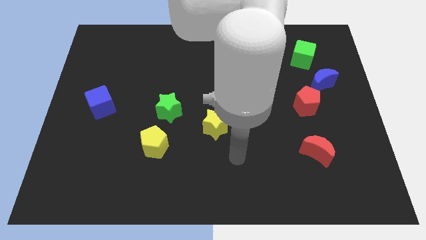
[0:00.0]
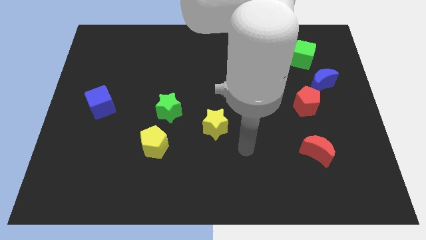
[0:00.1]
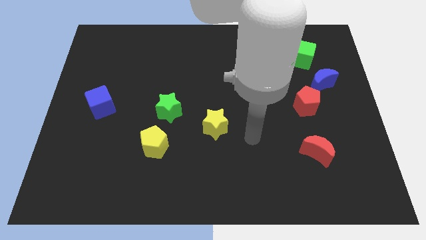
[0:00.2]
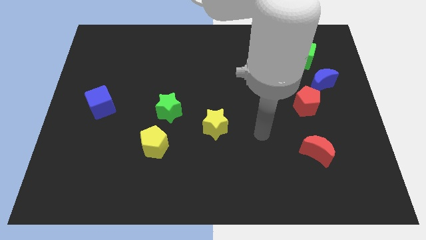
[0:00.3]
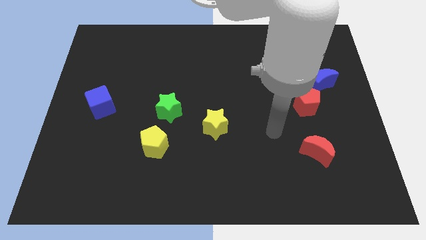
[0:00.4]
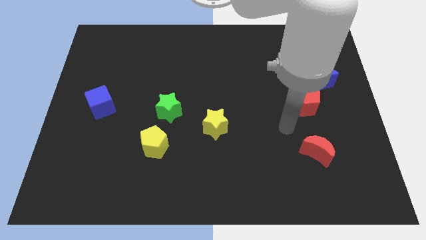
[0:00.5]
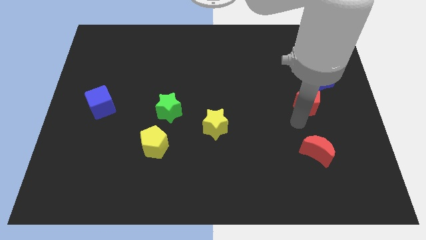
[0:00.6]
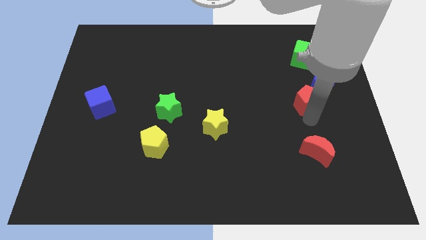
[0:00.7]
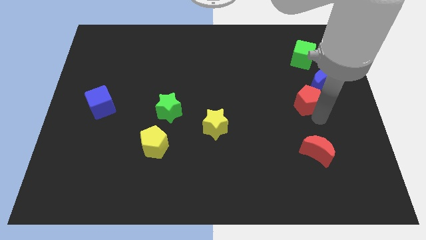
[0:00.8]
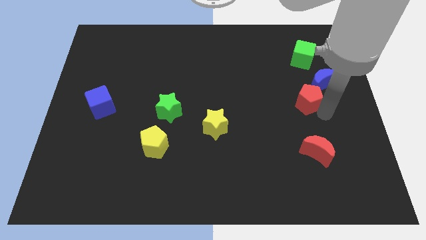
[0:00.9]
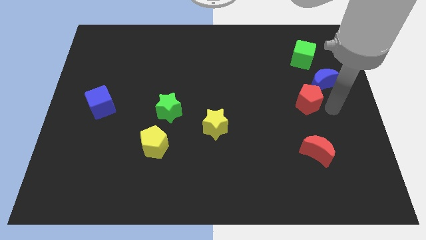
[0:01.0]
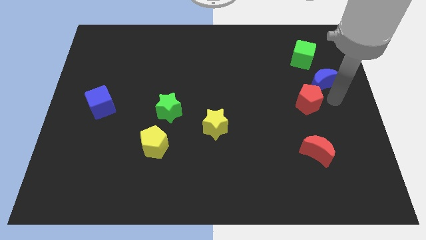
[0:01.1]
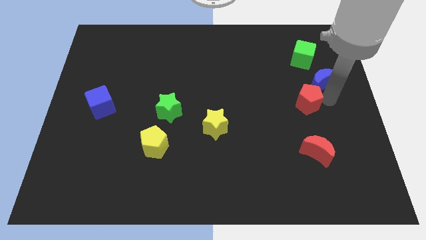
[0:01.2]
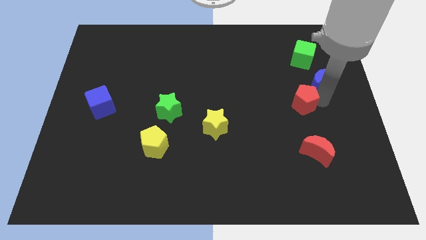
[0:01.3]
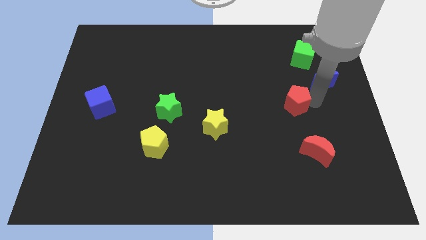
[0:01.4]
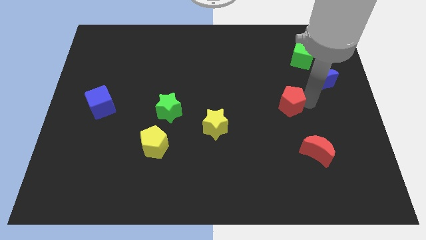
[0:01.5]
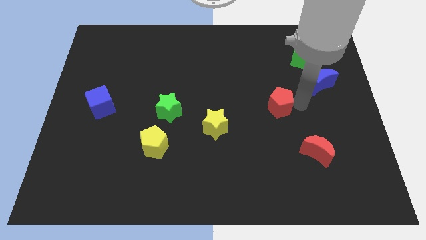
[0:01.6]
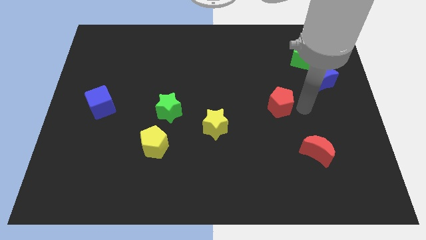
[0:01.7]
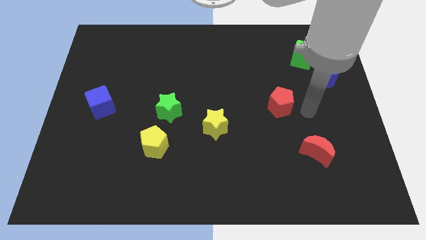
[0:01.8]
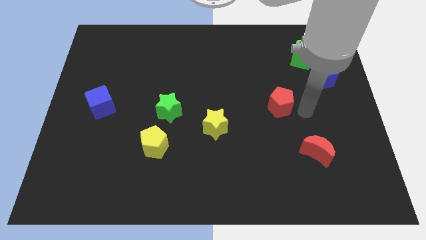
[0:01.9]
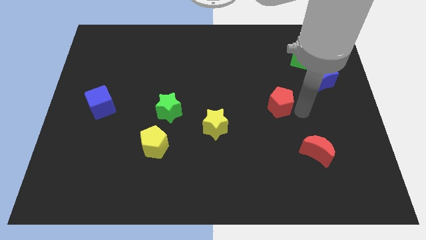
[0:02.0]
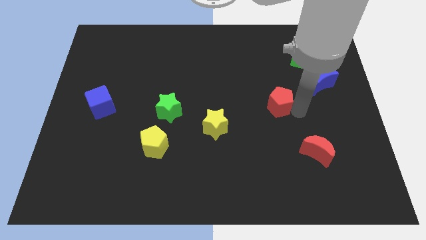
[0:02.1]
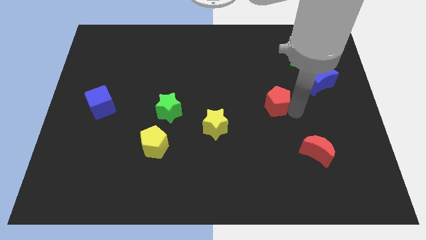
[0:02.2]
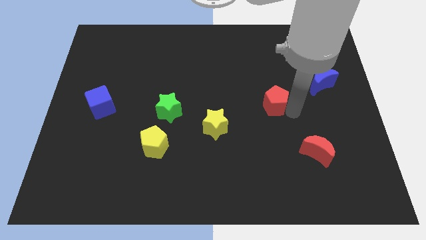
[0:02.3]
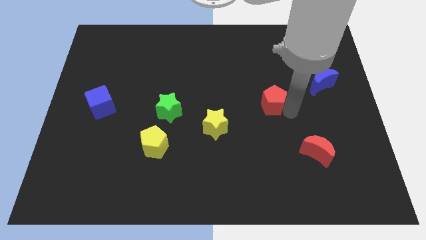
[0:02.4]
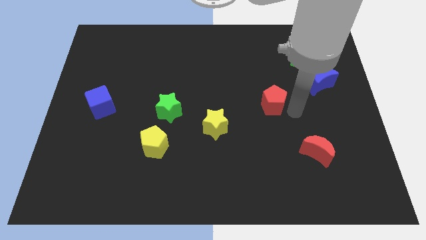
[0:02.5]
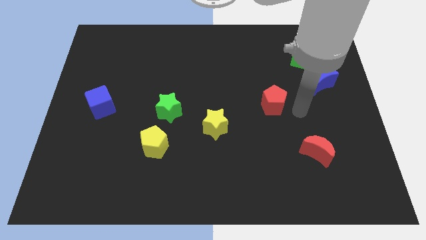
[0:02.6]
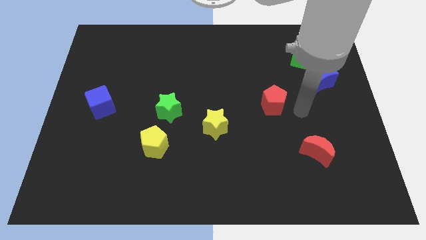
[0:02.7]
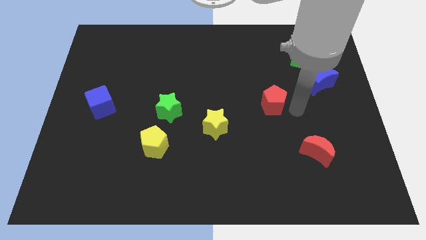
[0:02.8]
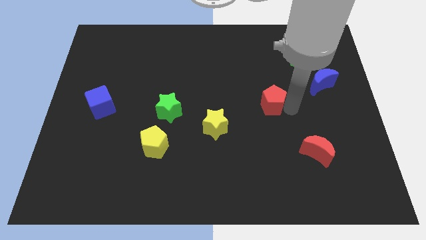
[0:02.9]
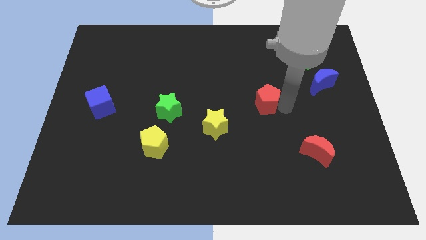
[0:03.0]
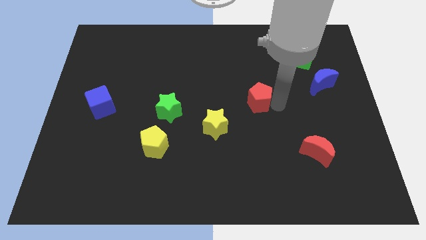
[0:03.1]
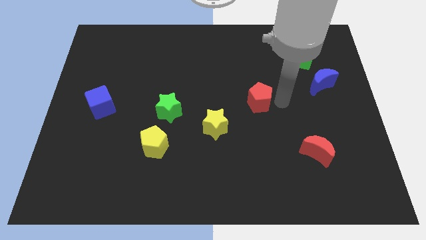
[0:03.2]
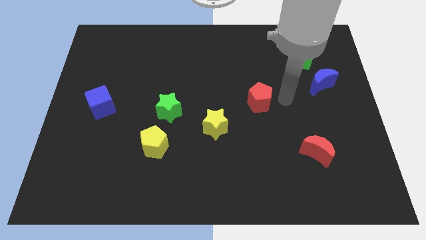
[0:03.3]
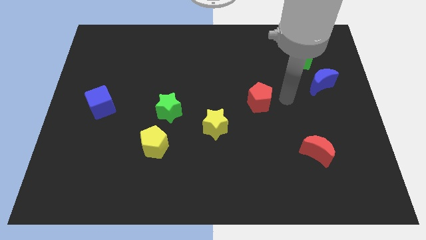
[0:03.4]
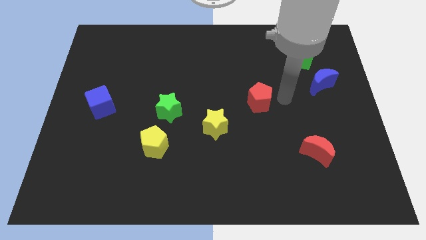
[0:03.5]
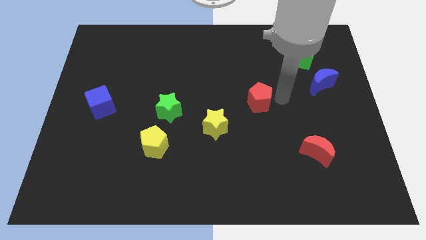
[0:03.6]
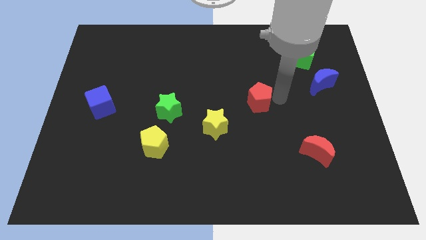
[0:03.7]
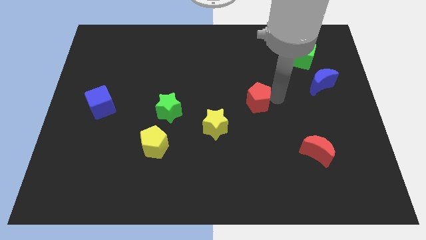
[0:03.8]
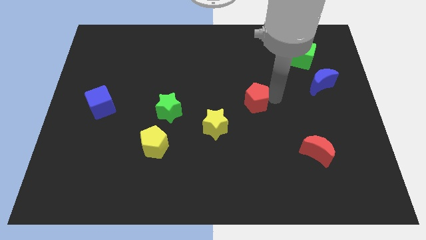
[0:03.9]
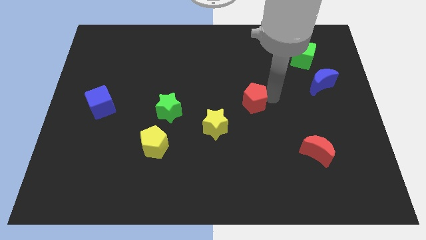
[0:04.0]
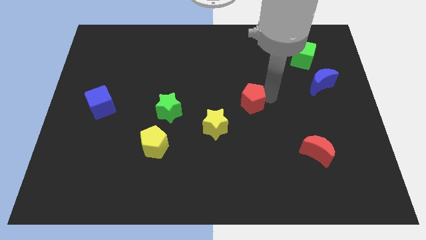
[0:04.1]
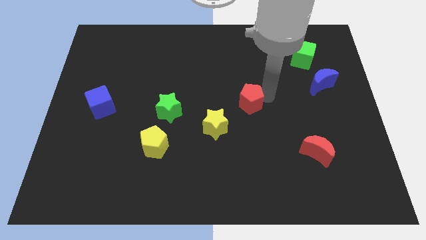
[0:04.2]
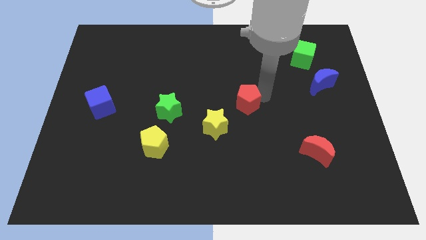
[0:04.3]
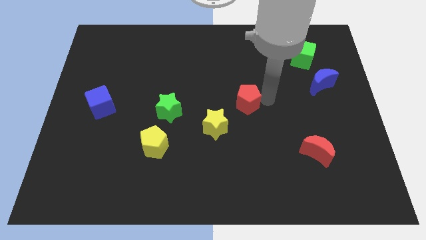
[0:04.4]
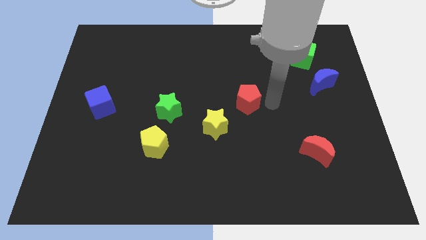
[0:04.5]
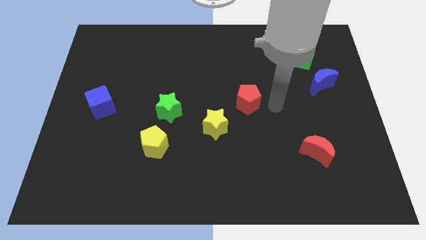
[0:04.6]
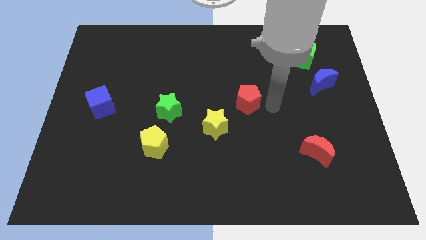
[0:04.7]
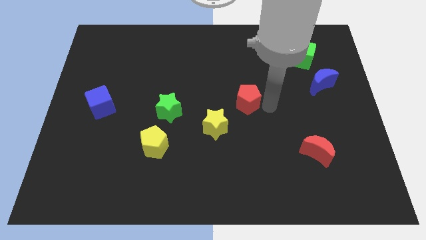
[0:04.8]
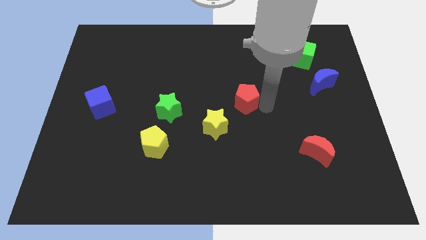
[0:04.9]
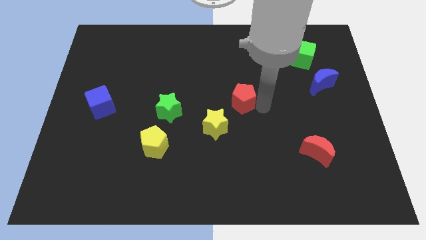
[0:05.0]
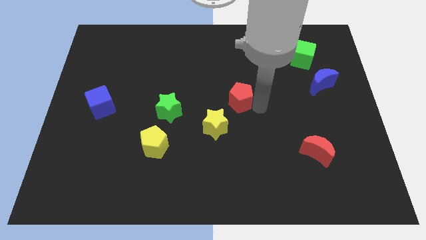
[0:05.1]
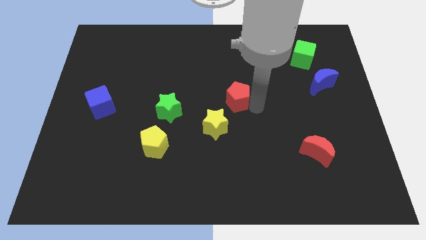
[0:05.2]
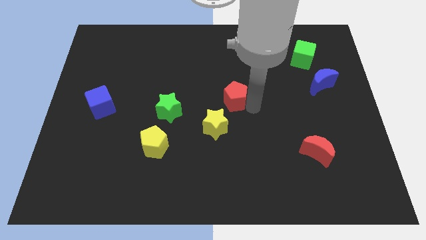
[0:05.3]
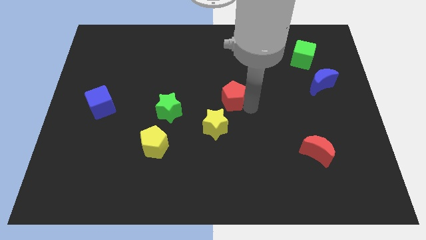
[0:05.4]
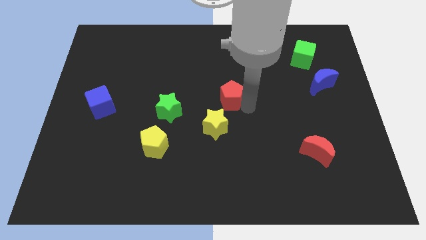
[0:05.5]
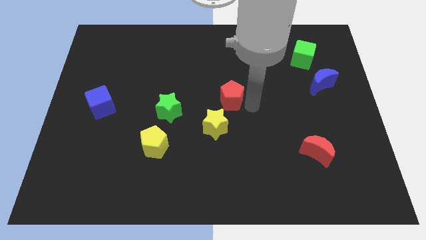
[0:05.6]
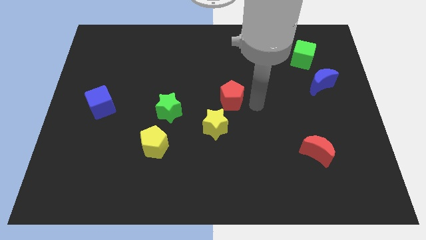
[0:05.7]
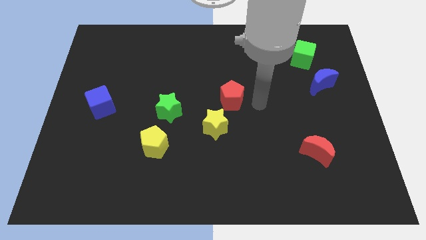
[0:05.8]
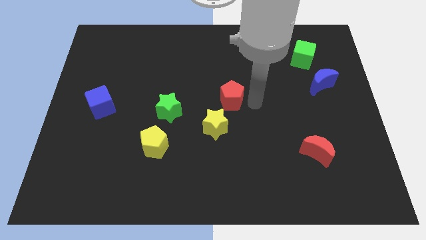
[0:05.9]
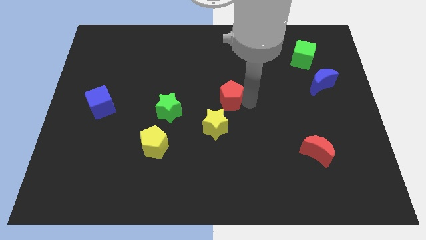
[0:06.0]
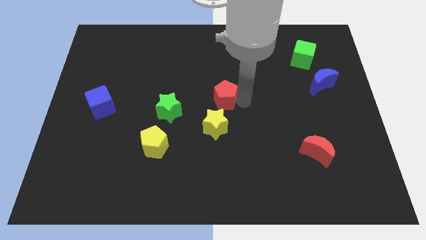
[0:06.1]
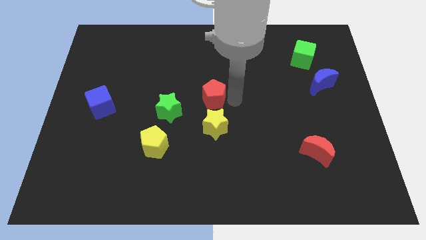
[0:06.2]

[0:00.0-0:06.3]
move the red pentagon diagonally up and to the right of the green star

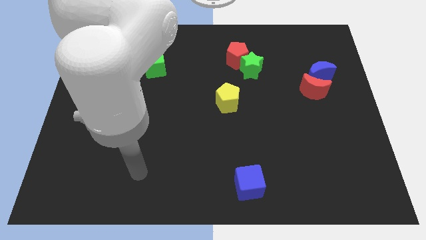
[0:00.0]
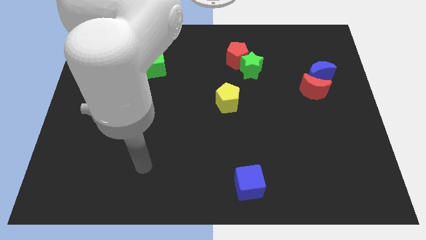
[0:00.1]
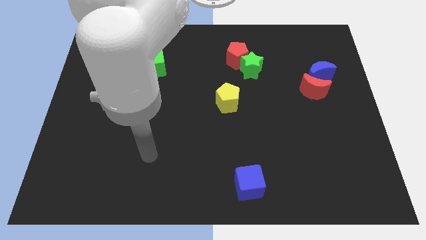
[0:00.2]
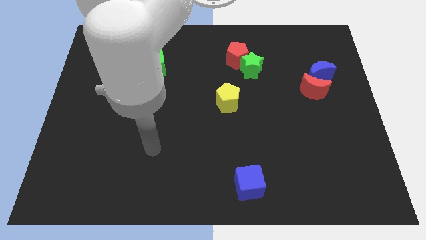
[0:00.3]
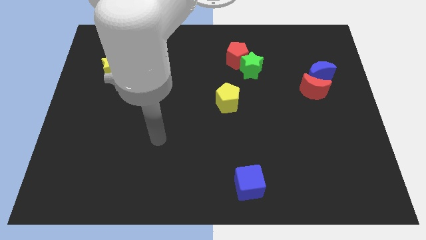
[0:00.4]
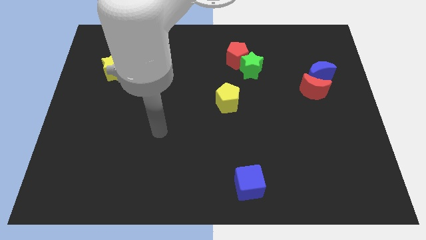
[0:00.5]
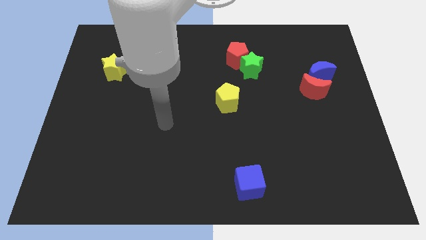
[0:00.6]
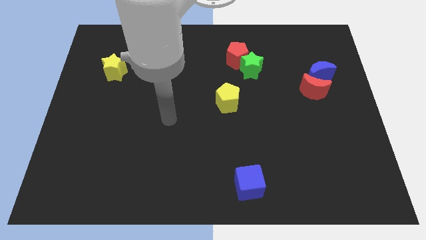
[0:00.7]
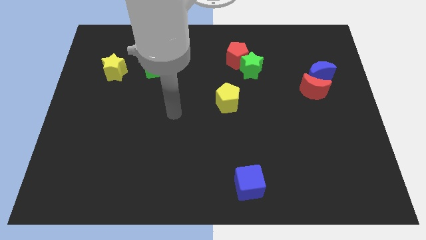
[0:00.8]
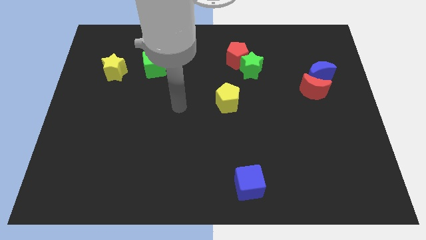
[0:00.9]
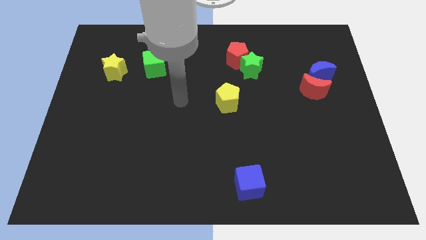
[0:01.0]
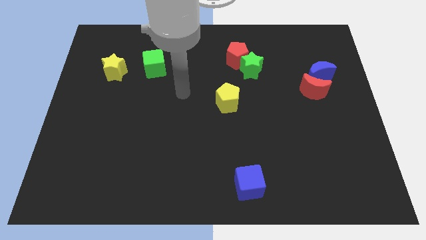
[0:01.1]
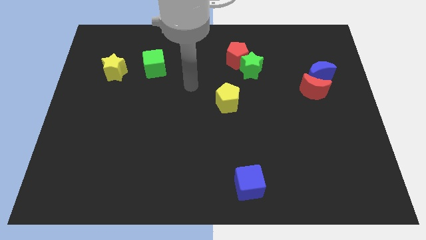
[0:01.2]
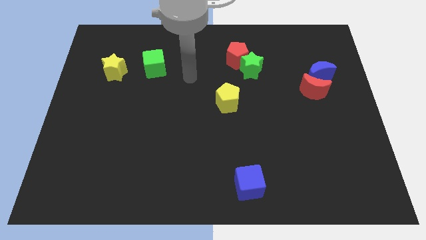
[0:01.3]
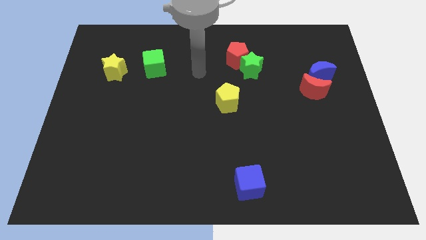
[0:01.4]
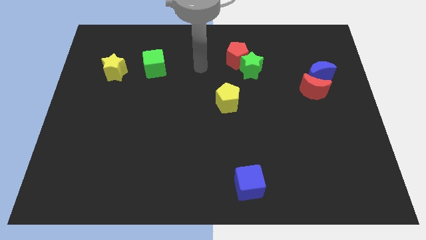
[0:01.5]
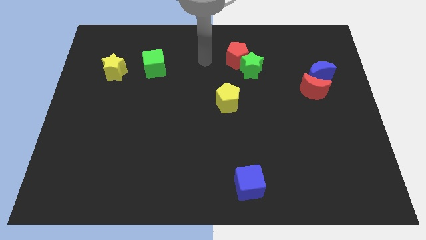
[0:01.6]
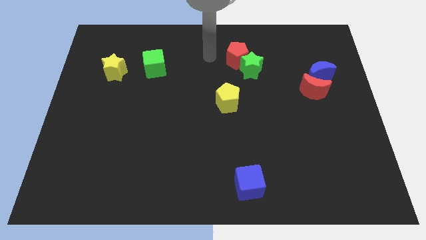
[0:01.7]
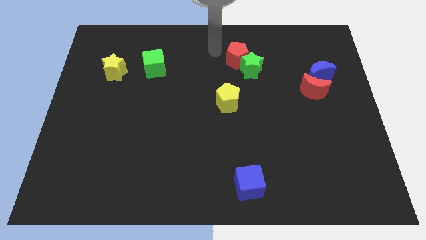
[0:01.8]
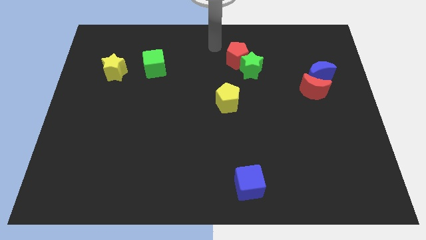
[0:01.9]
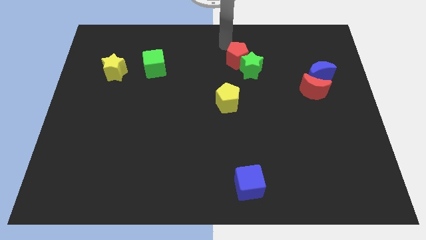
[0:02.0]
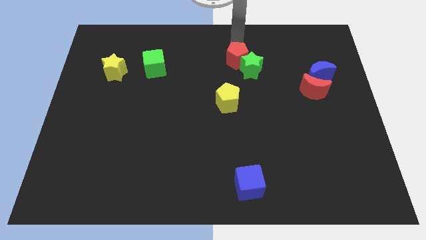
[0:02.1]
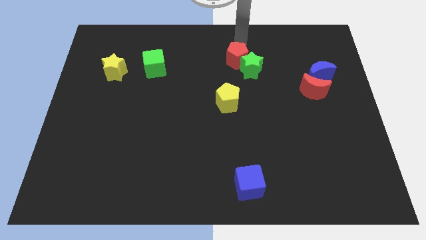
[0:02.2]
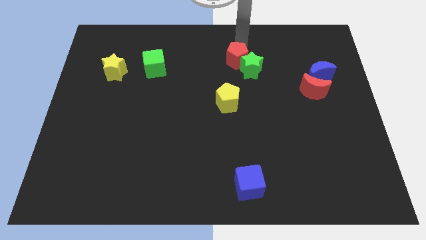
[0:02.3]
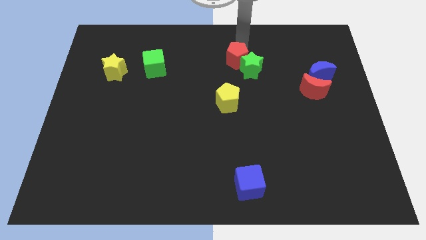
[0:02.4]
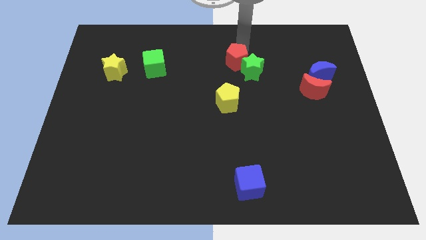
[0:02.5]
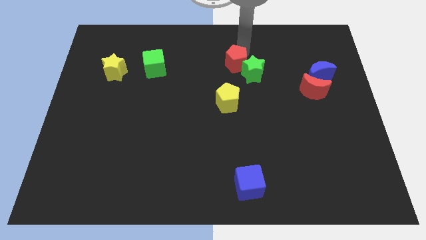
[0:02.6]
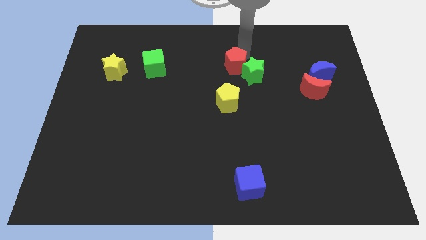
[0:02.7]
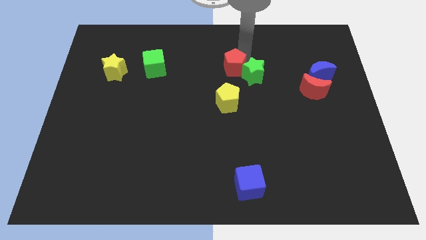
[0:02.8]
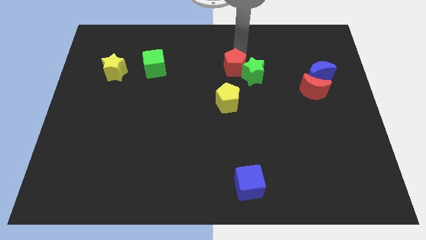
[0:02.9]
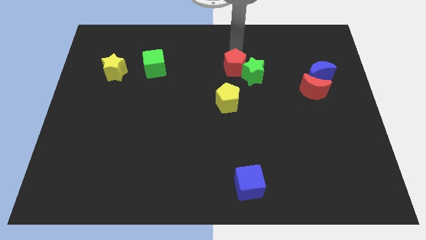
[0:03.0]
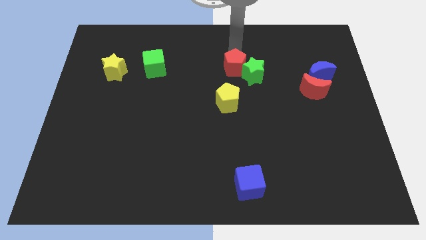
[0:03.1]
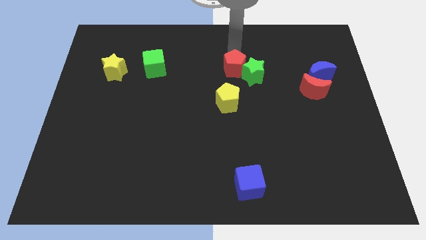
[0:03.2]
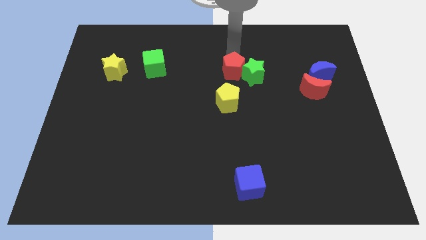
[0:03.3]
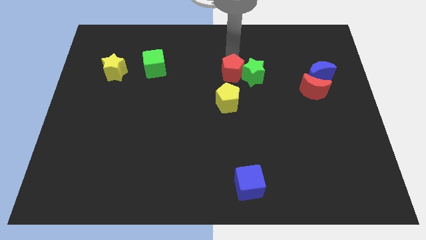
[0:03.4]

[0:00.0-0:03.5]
move the red pentagon diagonally down and to the left of the green star
